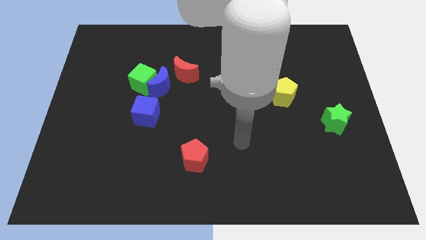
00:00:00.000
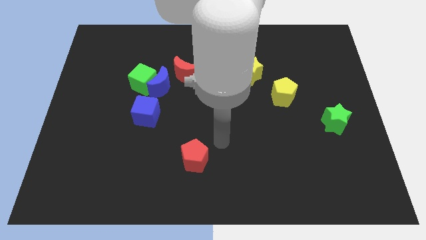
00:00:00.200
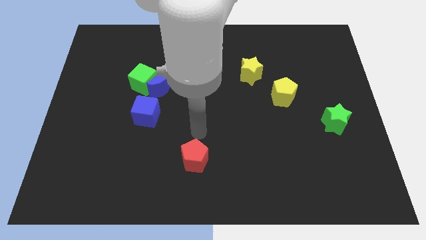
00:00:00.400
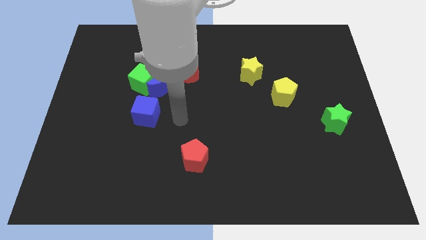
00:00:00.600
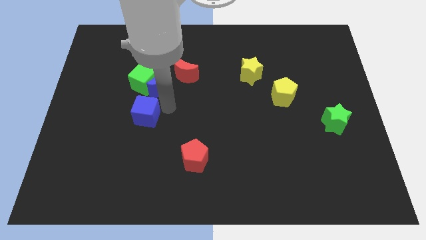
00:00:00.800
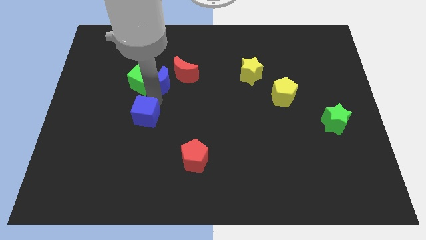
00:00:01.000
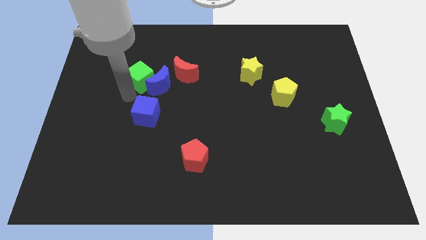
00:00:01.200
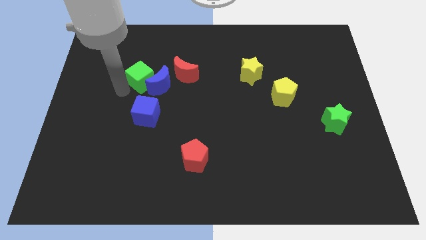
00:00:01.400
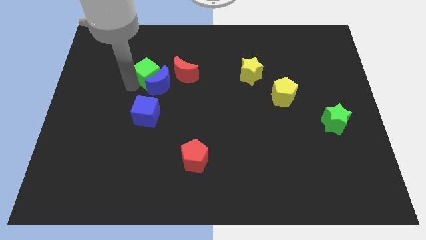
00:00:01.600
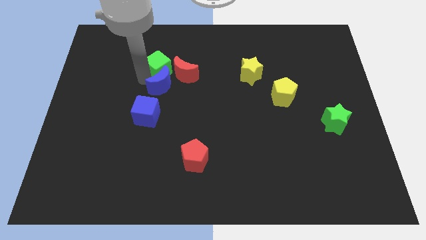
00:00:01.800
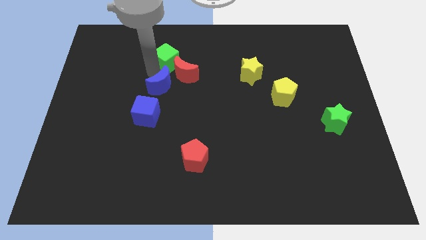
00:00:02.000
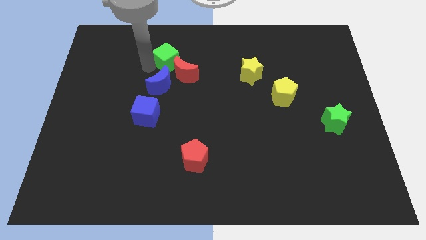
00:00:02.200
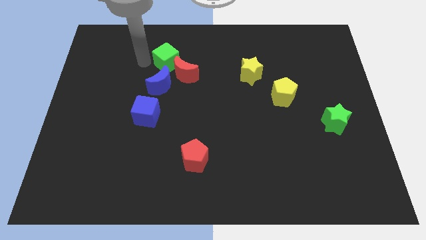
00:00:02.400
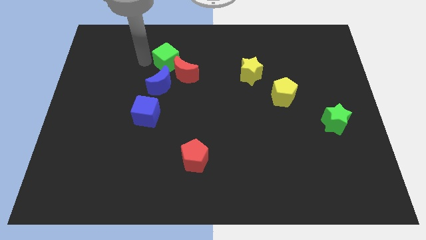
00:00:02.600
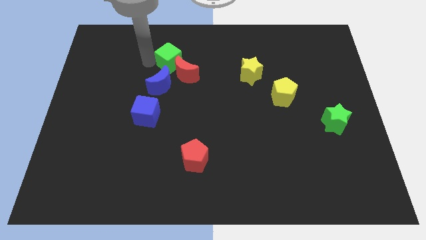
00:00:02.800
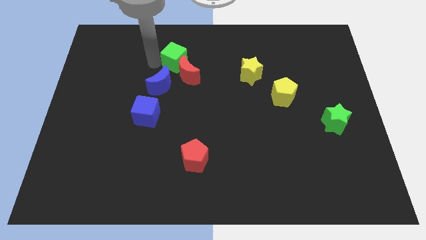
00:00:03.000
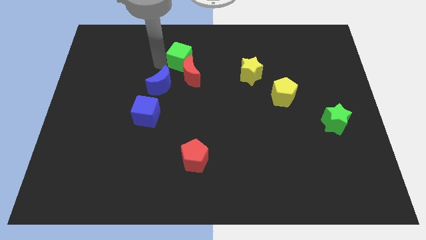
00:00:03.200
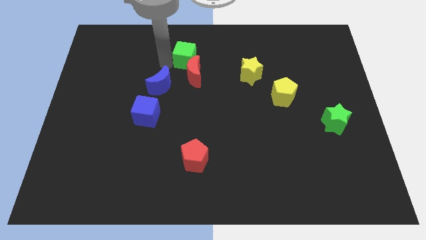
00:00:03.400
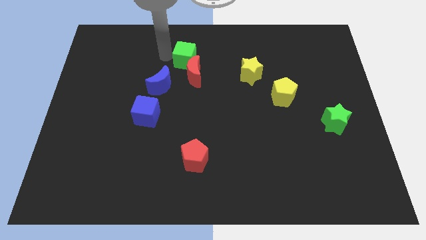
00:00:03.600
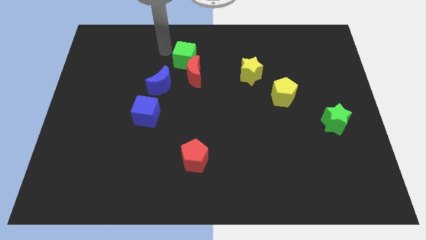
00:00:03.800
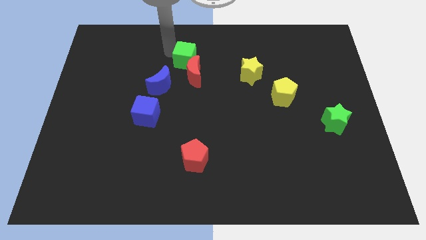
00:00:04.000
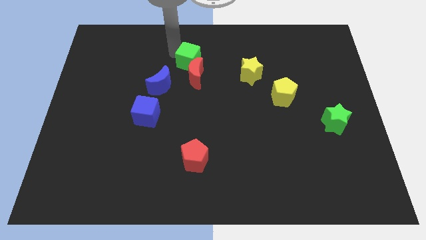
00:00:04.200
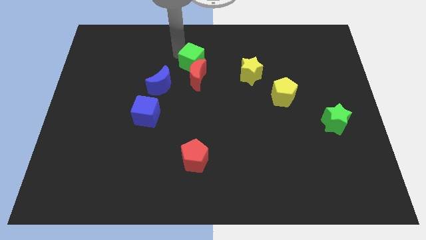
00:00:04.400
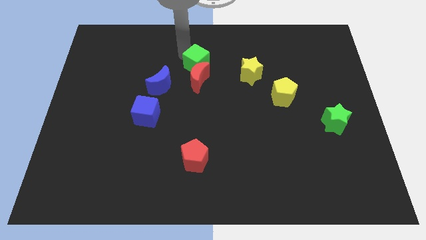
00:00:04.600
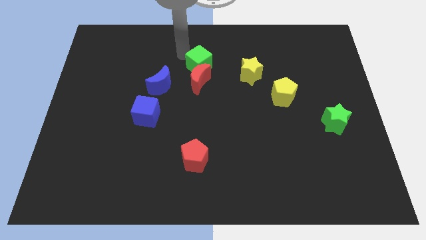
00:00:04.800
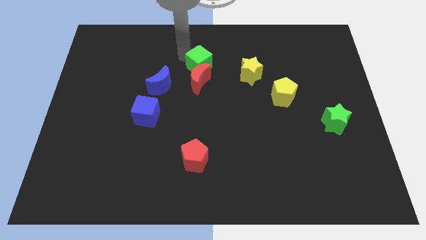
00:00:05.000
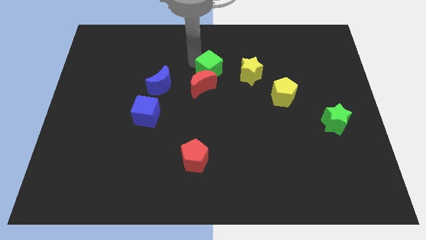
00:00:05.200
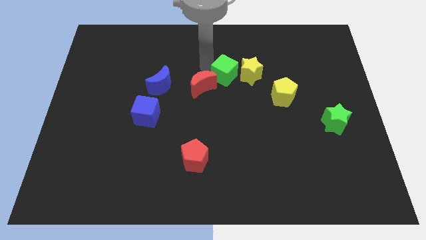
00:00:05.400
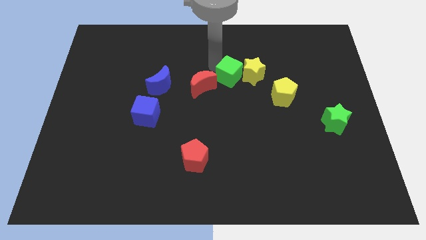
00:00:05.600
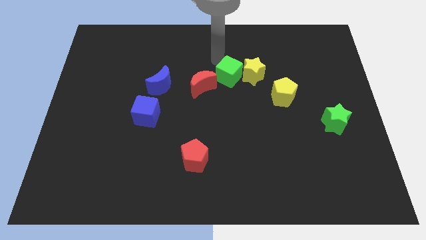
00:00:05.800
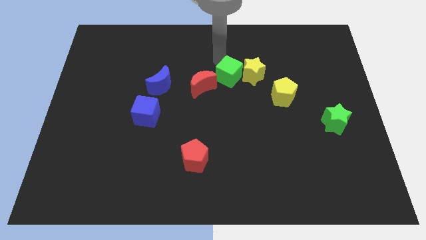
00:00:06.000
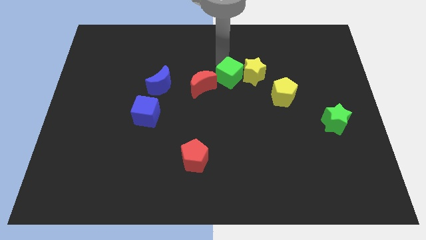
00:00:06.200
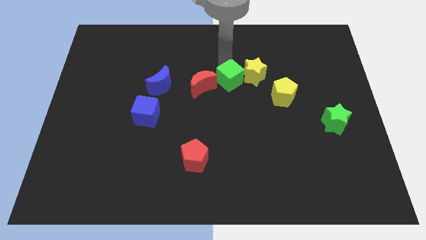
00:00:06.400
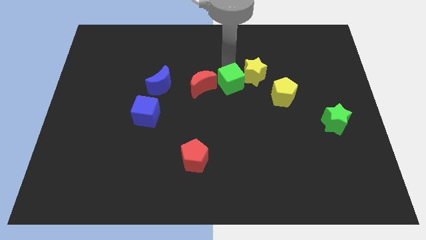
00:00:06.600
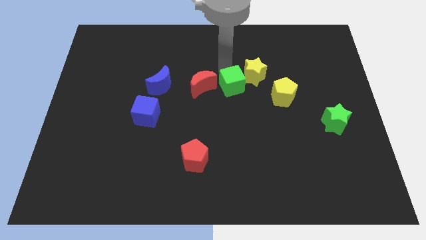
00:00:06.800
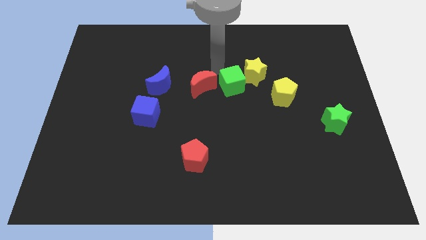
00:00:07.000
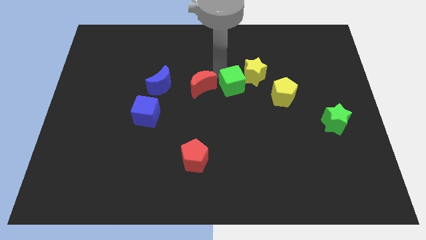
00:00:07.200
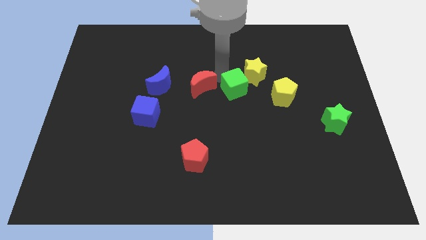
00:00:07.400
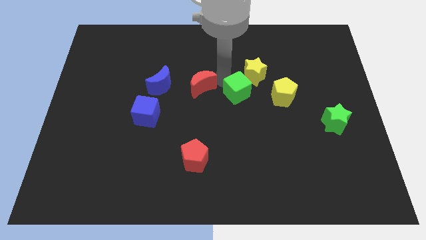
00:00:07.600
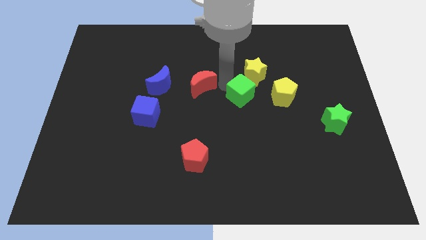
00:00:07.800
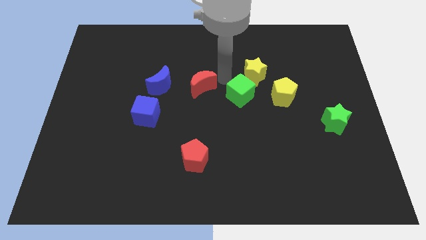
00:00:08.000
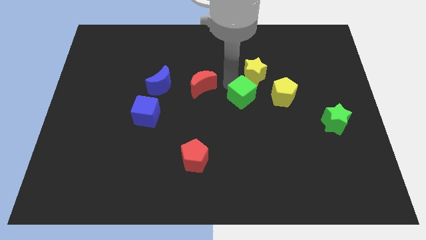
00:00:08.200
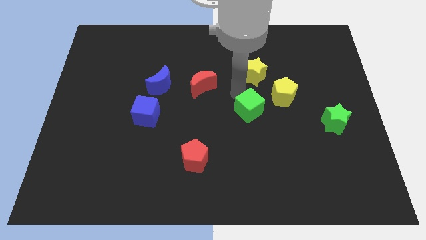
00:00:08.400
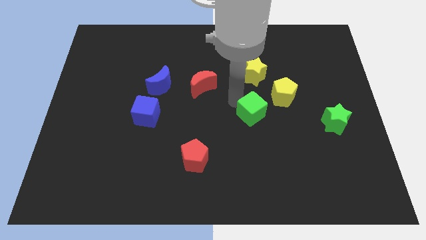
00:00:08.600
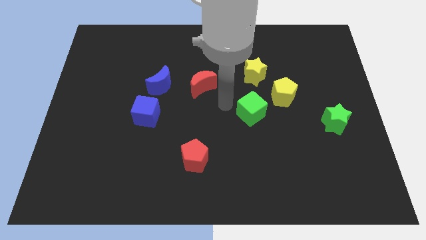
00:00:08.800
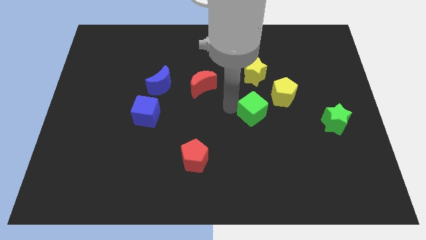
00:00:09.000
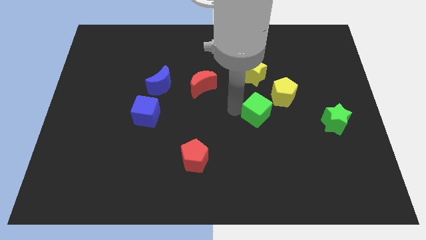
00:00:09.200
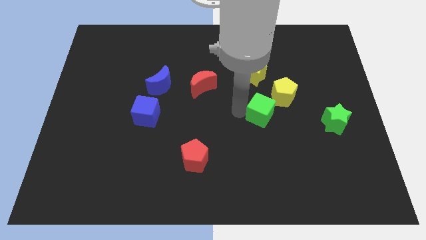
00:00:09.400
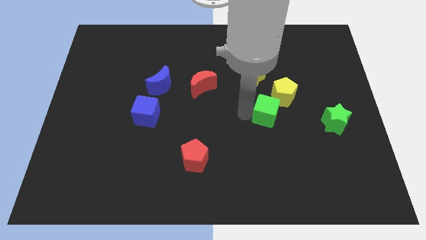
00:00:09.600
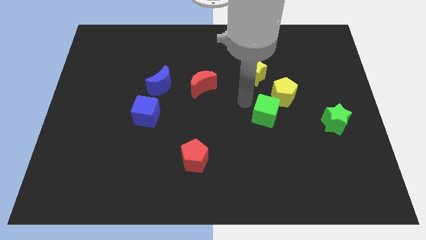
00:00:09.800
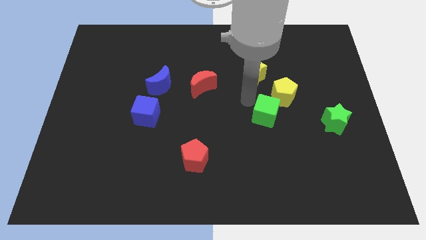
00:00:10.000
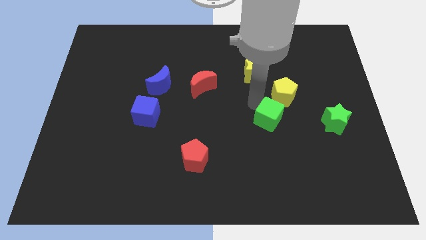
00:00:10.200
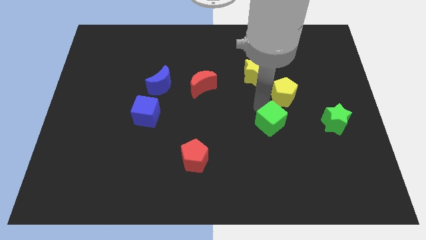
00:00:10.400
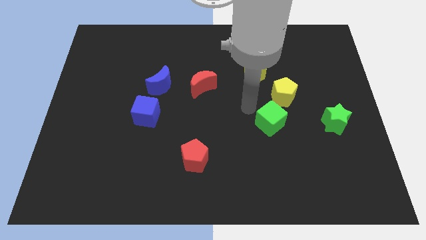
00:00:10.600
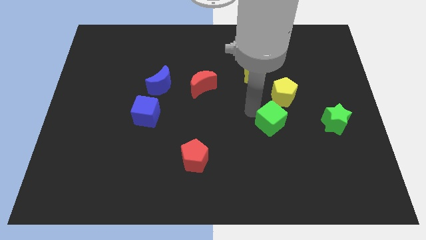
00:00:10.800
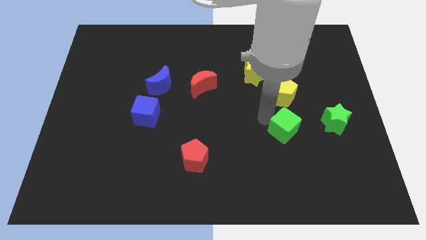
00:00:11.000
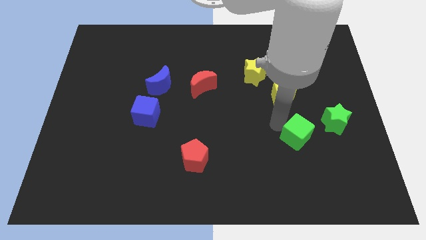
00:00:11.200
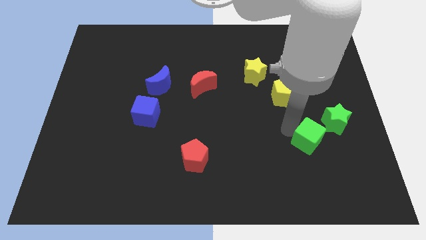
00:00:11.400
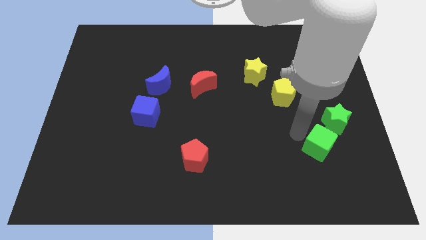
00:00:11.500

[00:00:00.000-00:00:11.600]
move the green cube to the bottom side of the green star
